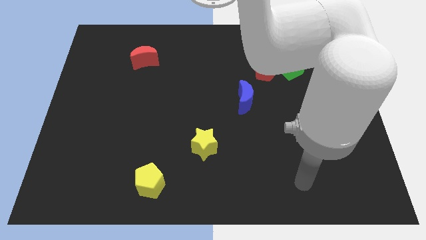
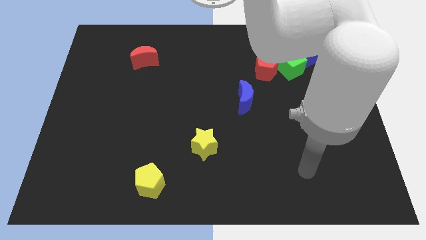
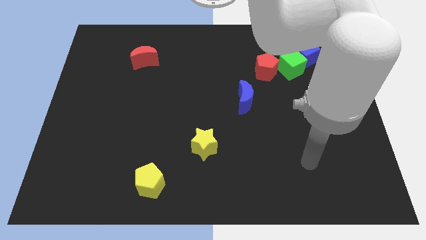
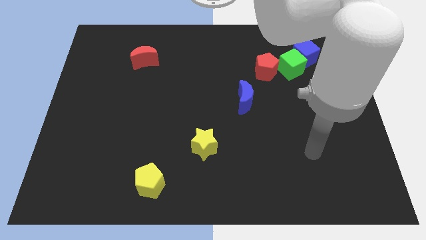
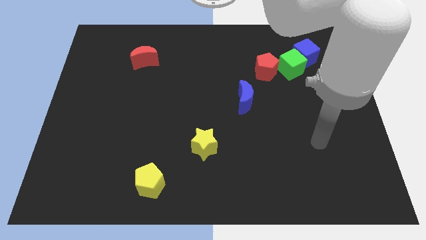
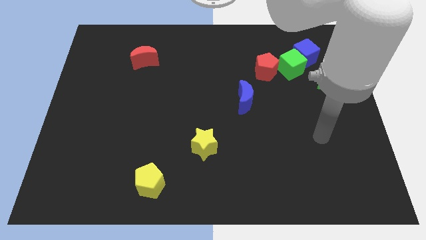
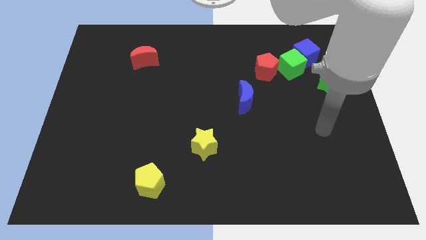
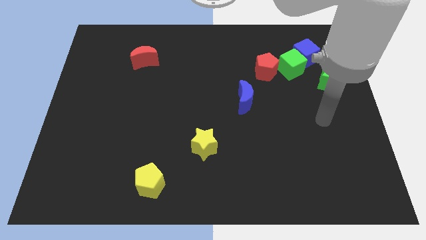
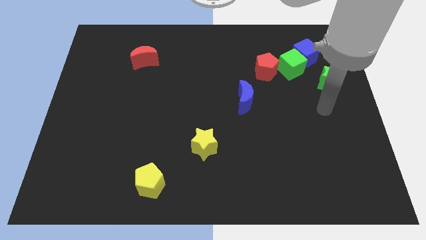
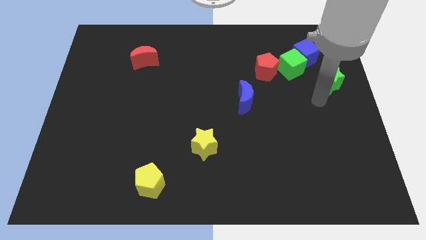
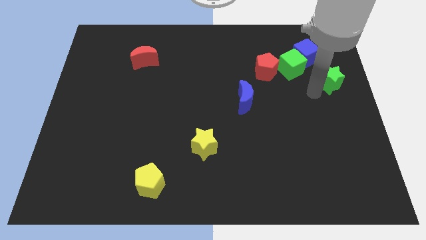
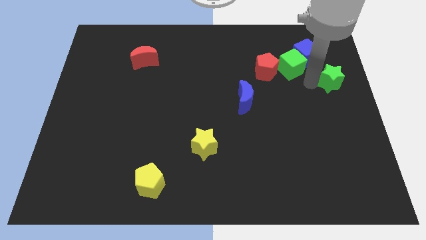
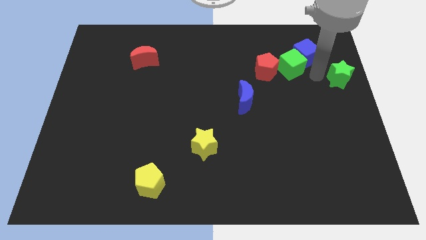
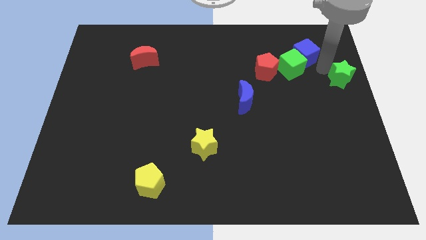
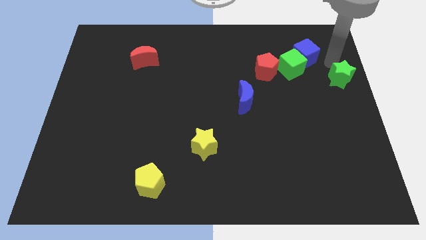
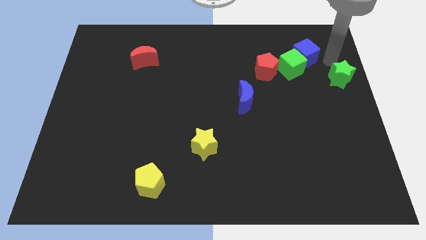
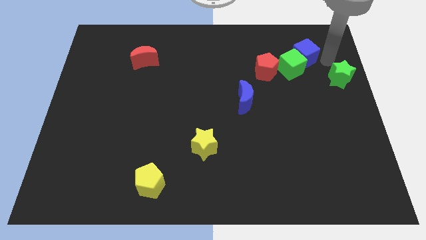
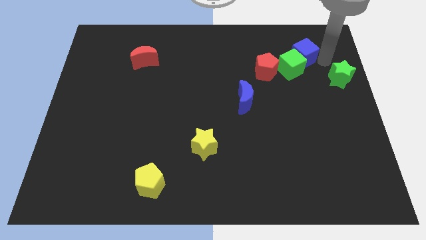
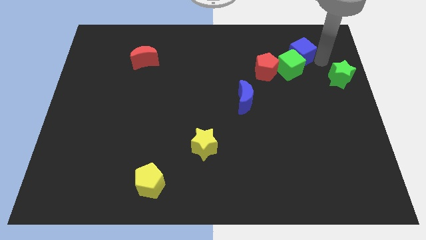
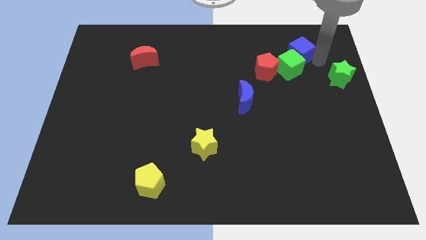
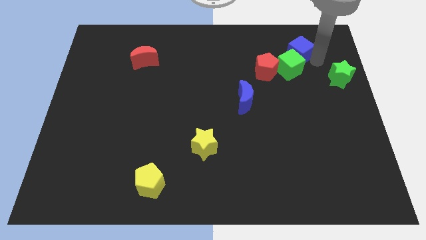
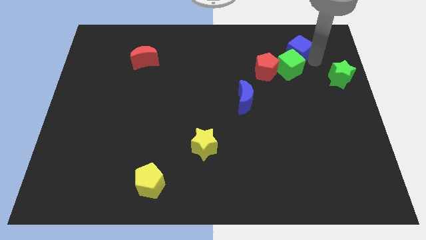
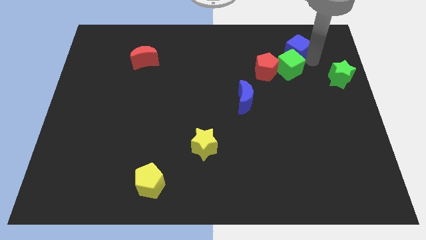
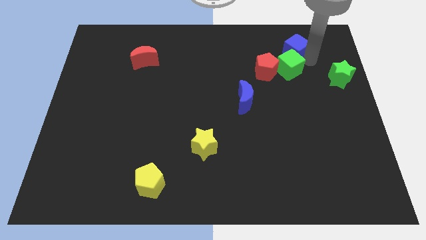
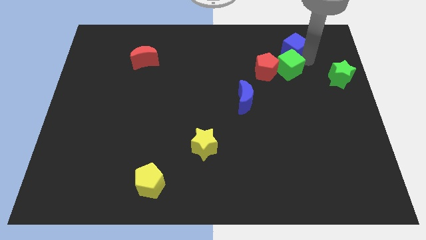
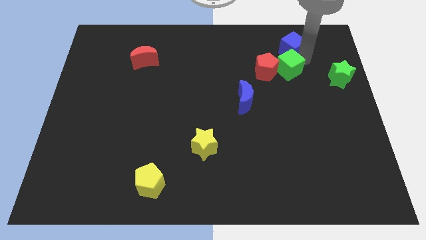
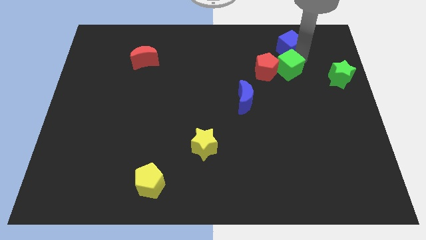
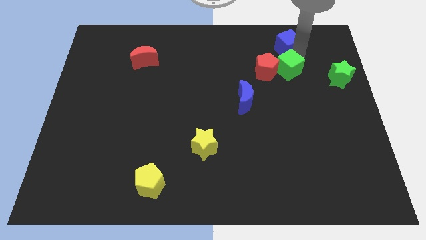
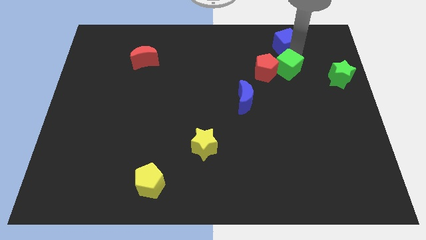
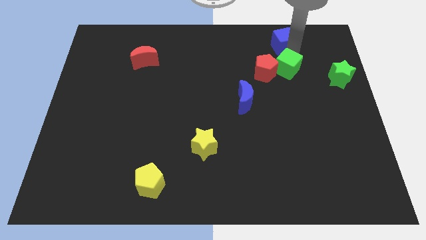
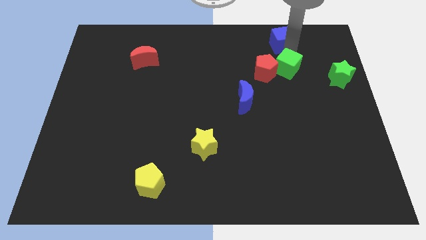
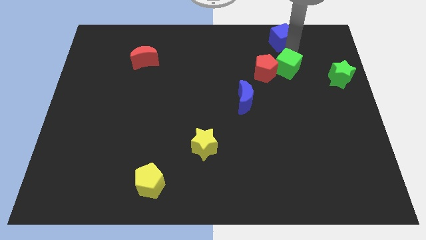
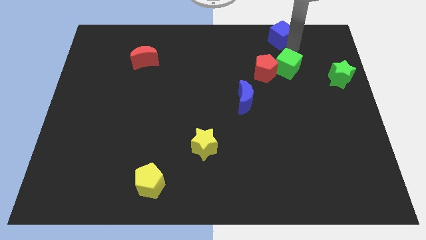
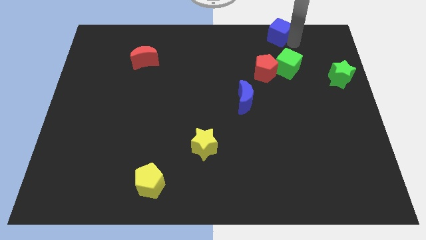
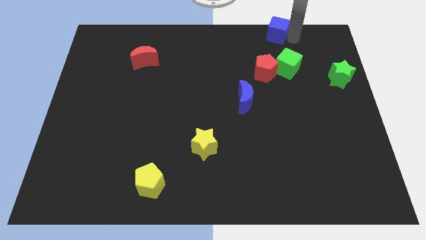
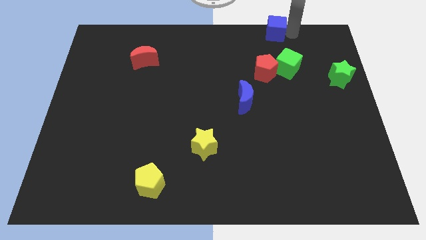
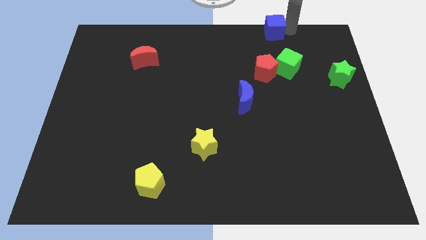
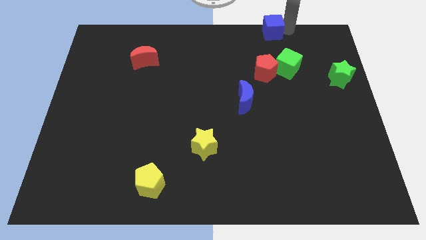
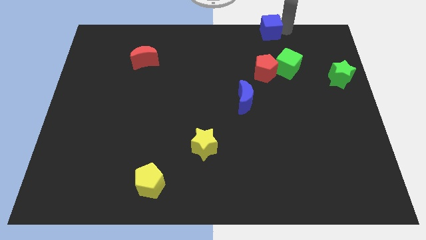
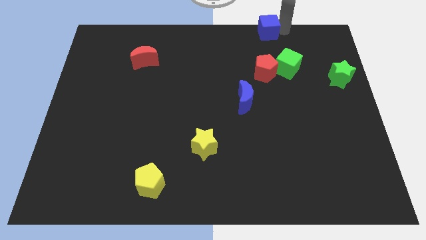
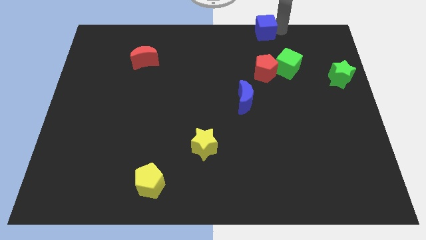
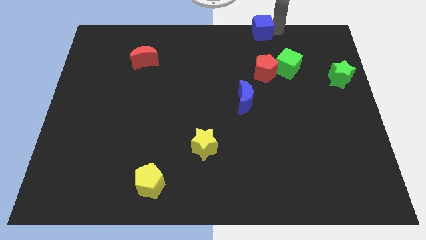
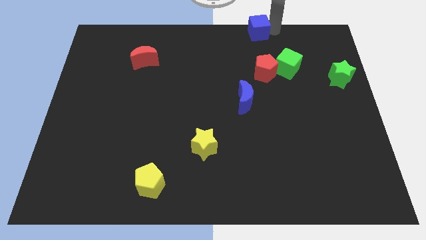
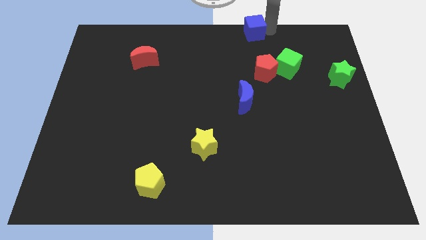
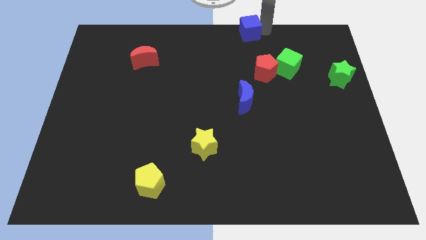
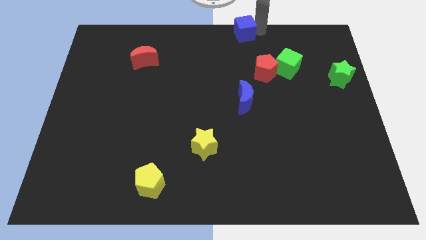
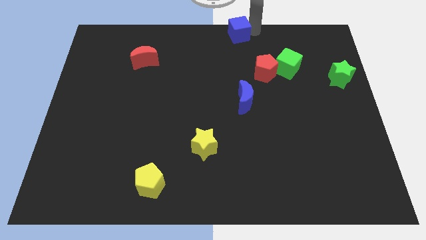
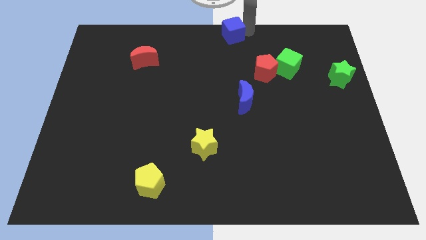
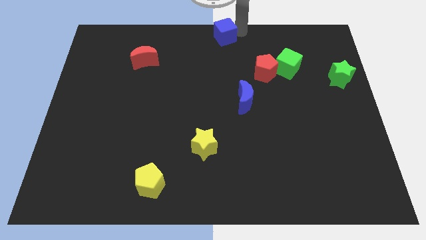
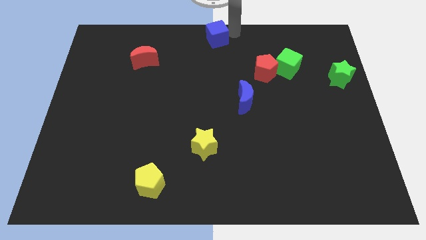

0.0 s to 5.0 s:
move the blue cube left

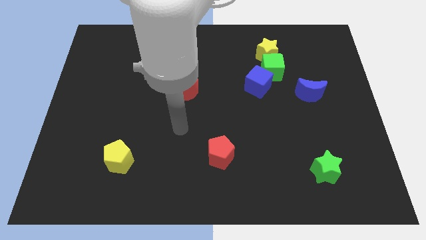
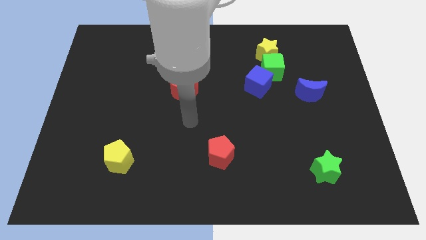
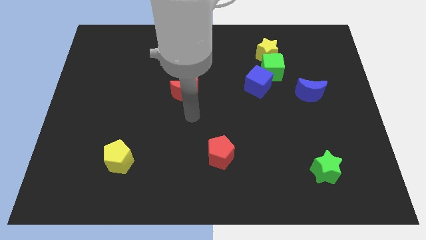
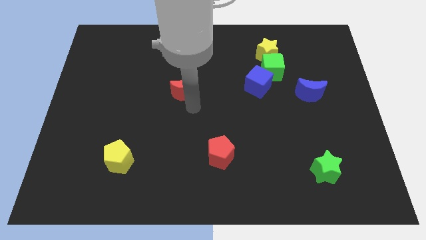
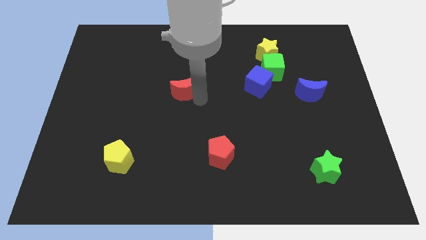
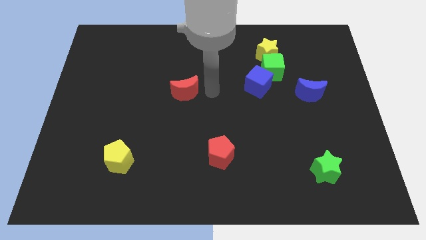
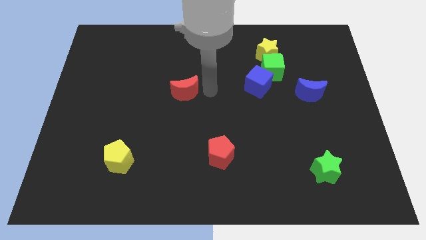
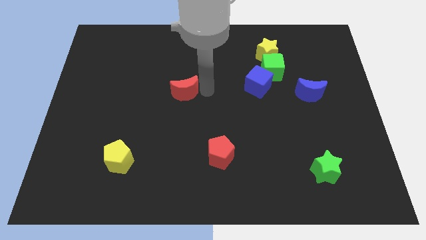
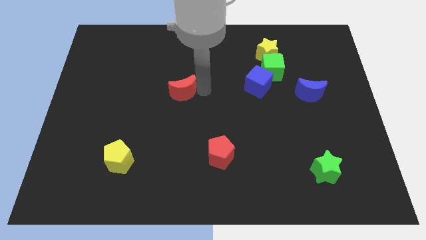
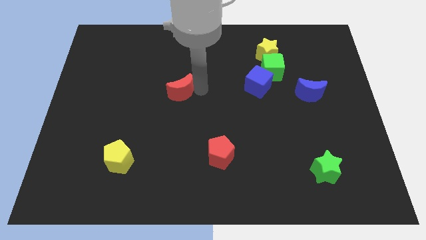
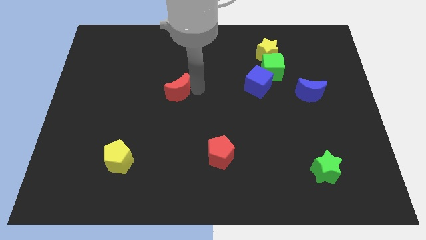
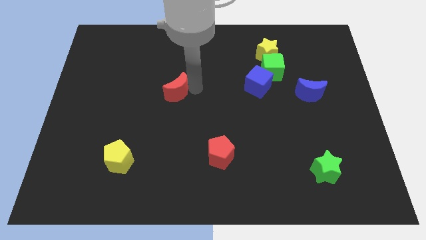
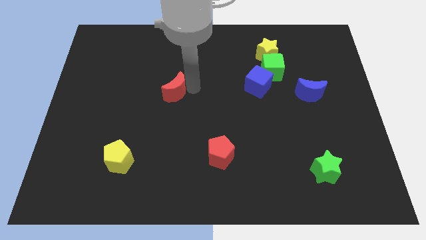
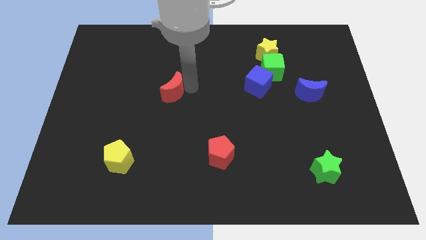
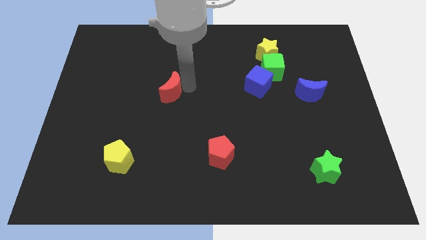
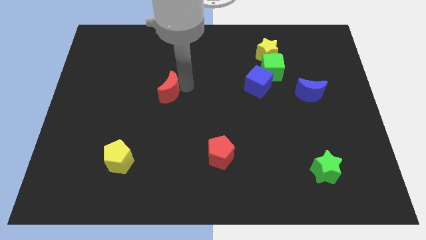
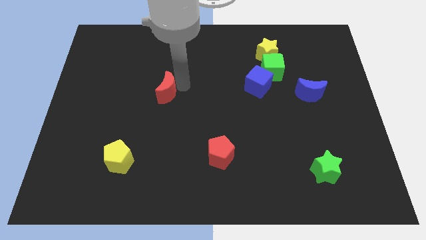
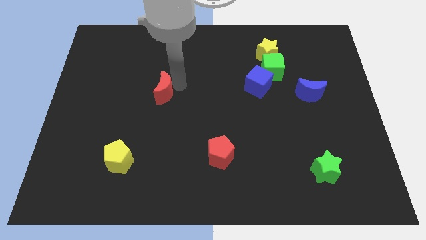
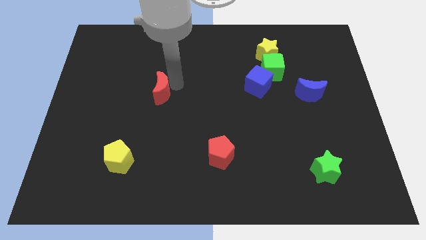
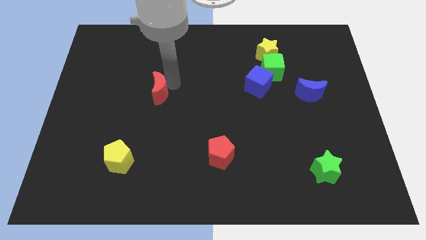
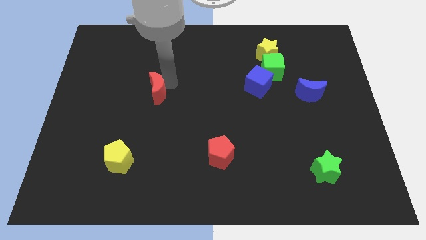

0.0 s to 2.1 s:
slightly slide the red moon to the left

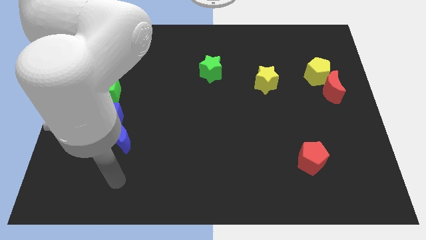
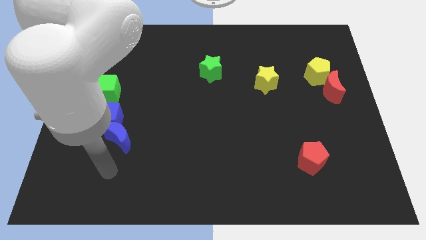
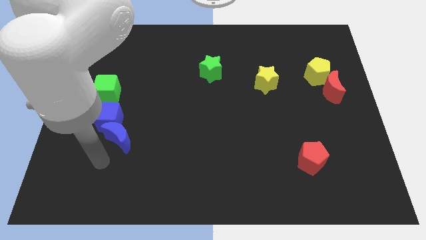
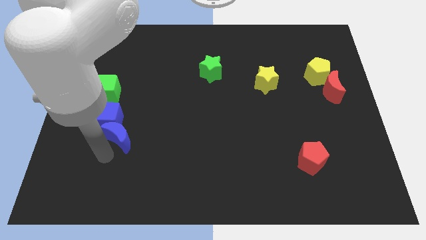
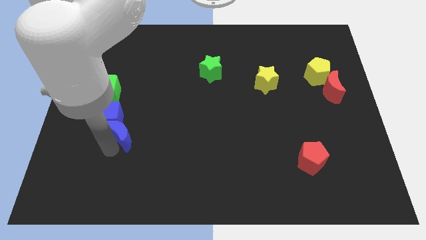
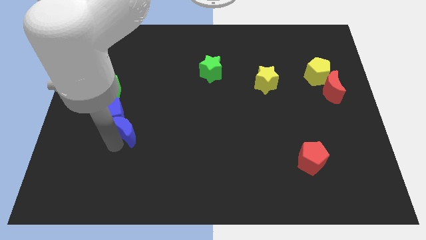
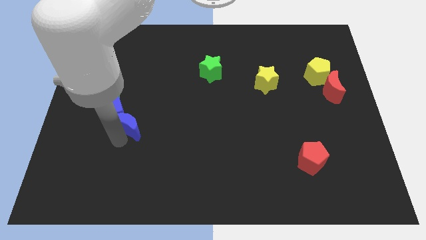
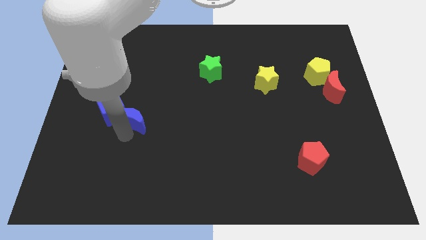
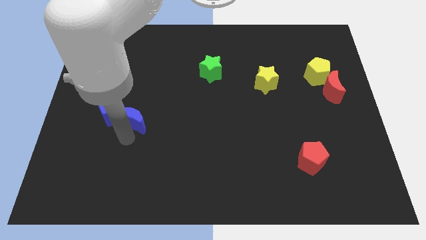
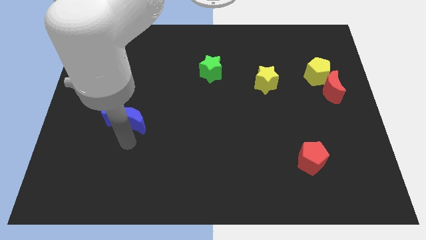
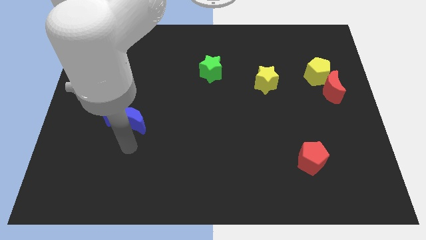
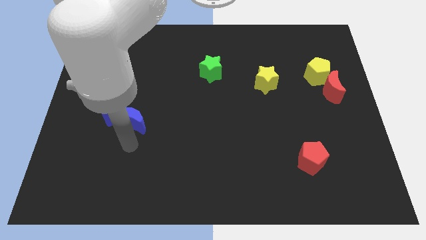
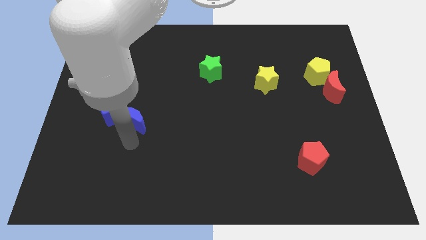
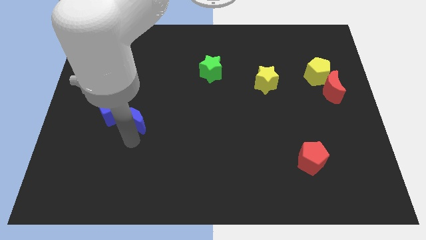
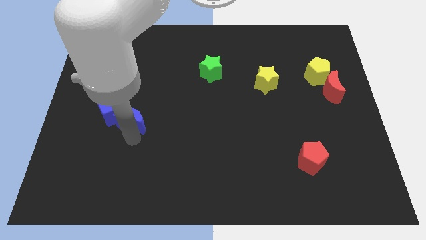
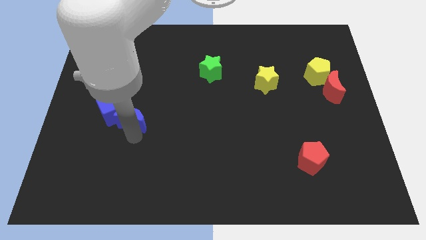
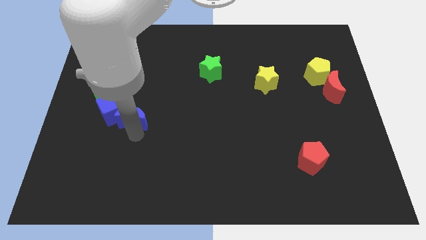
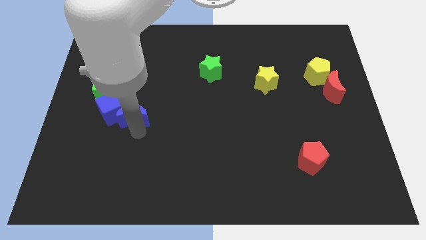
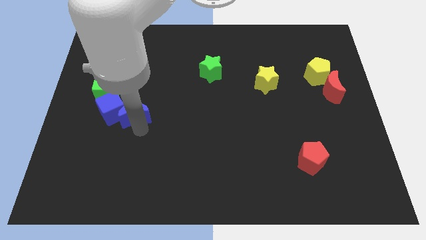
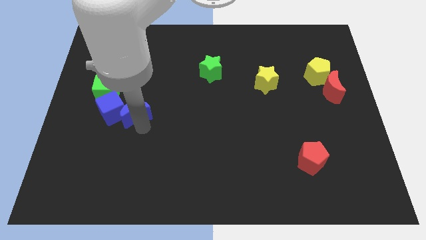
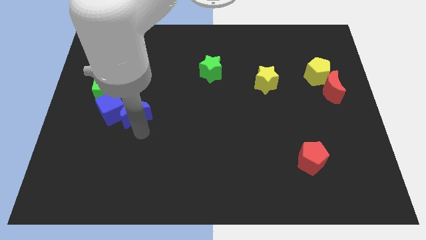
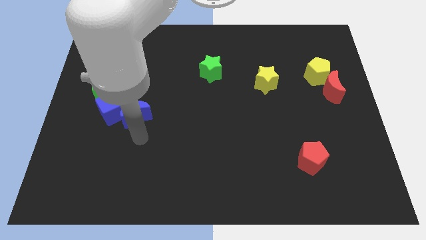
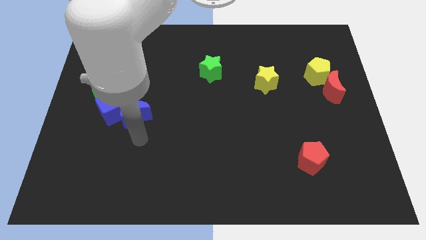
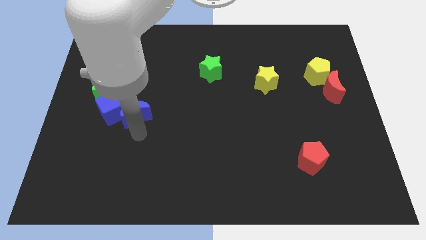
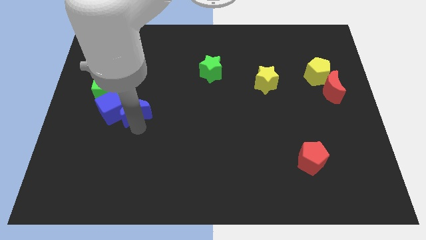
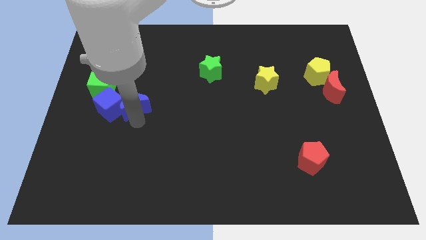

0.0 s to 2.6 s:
move the blue moon a little bit upwards
